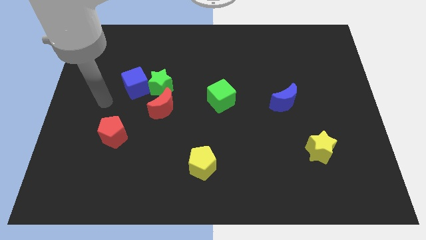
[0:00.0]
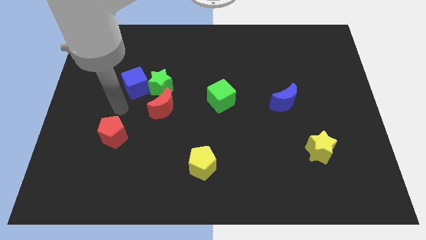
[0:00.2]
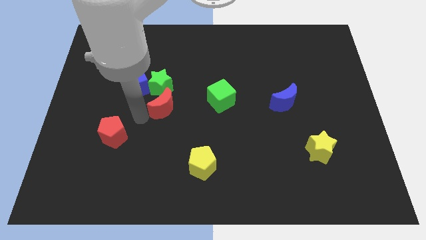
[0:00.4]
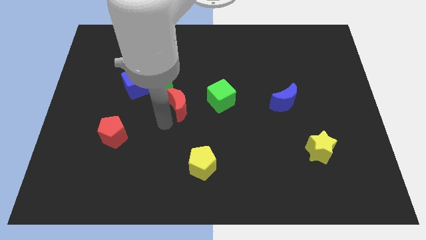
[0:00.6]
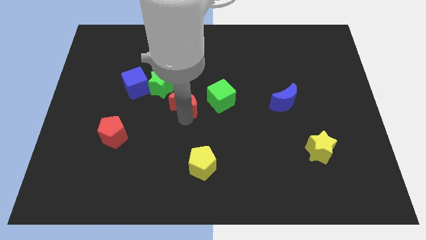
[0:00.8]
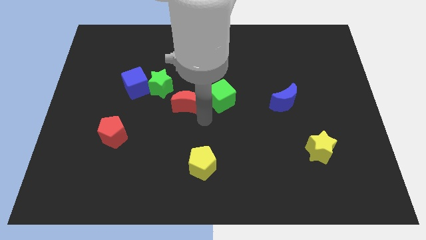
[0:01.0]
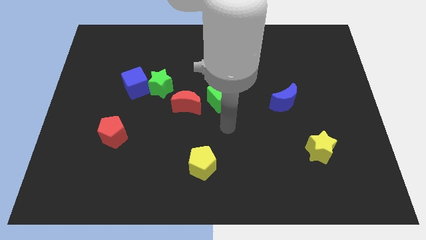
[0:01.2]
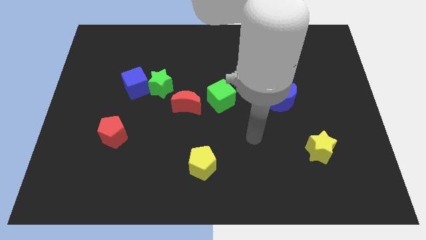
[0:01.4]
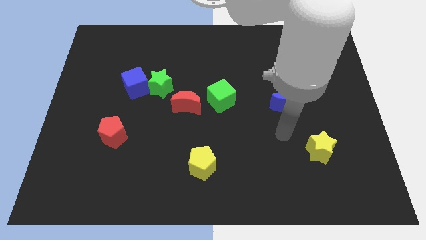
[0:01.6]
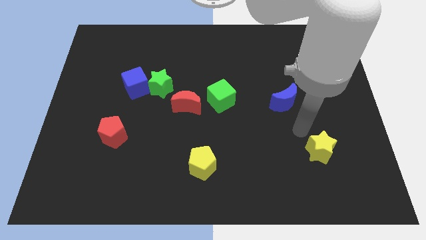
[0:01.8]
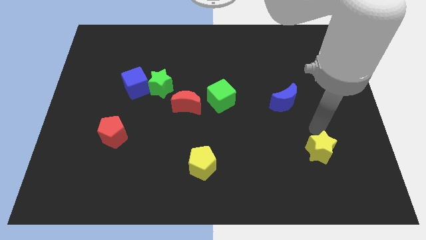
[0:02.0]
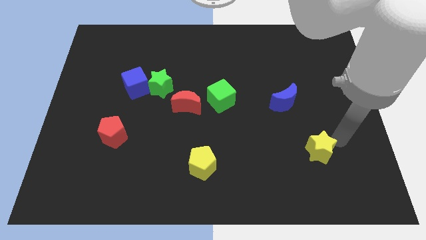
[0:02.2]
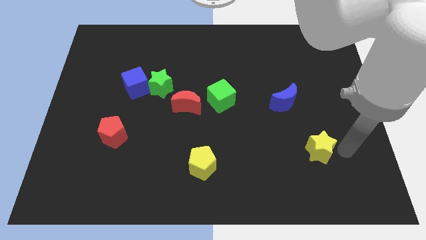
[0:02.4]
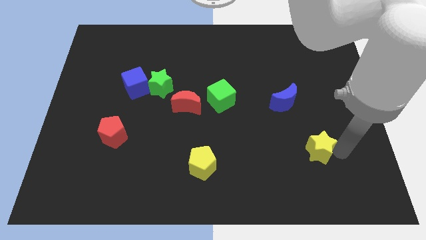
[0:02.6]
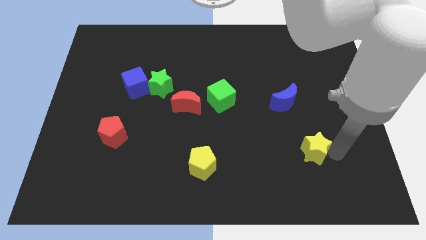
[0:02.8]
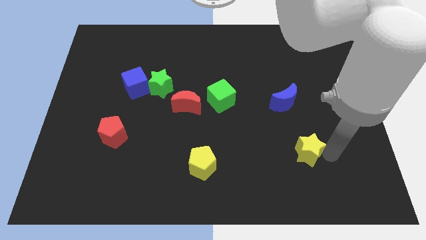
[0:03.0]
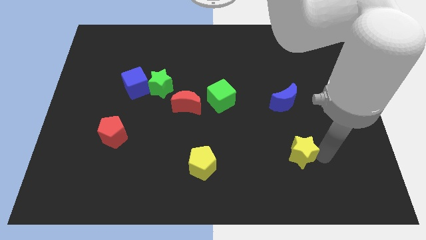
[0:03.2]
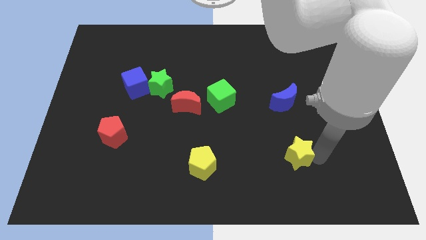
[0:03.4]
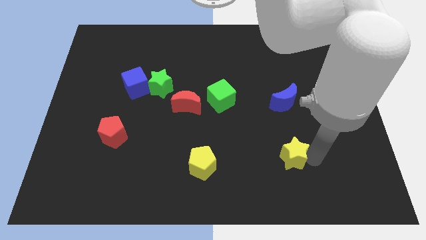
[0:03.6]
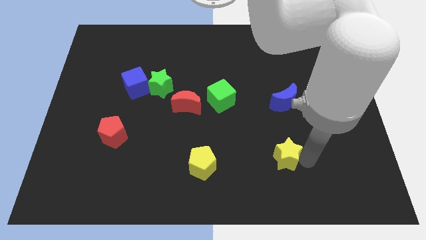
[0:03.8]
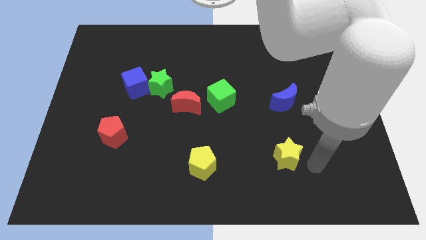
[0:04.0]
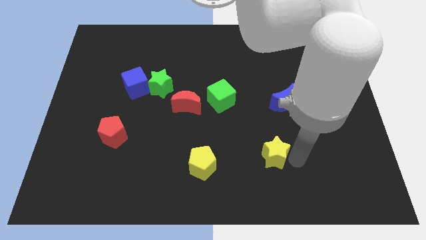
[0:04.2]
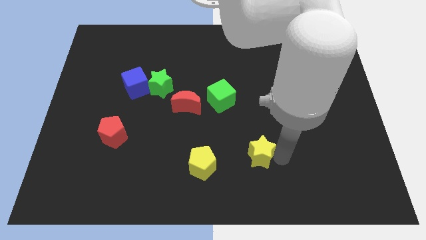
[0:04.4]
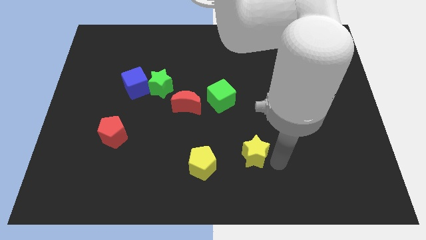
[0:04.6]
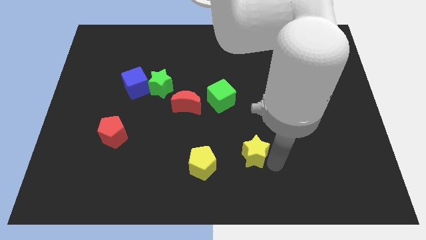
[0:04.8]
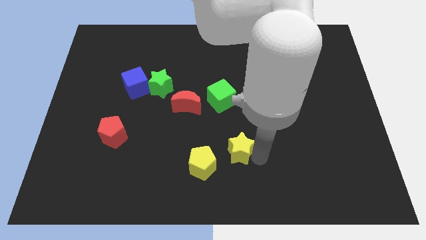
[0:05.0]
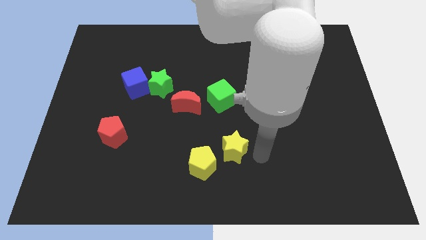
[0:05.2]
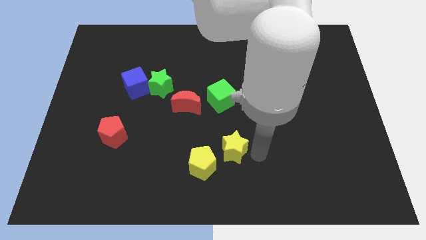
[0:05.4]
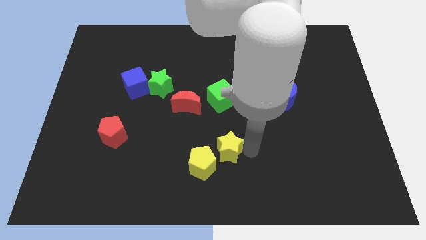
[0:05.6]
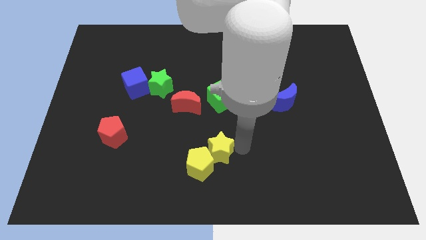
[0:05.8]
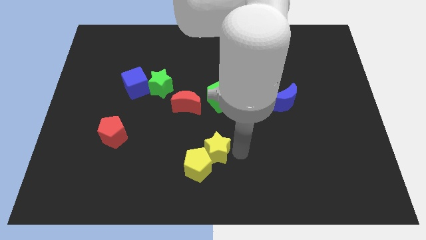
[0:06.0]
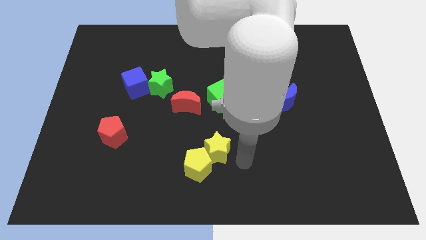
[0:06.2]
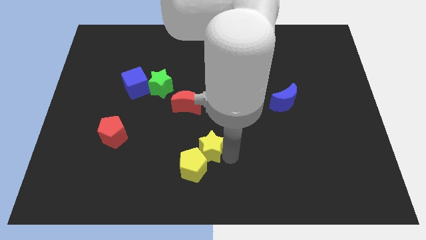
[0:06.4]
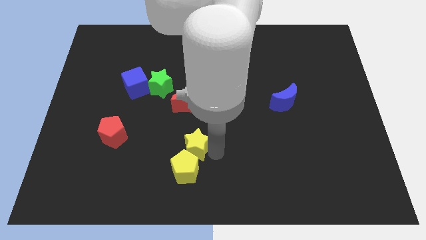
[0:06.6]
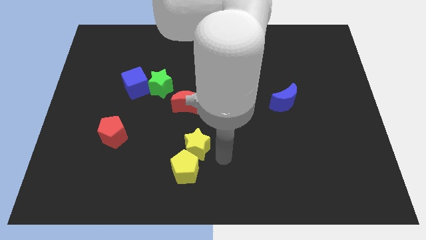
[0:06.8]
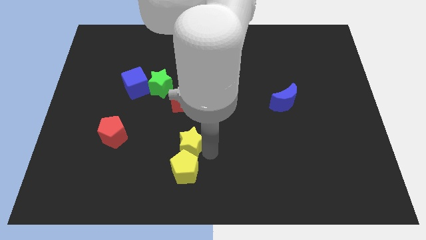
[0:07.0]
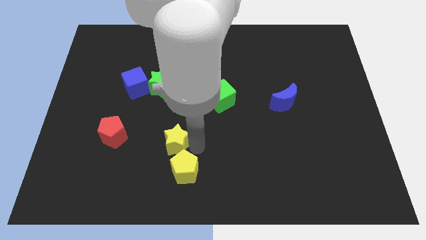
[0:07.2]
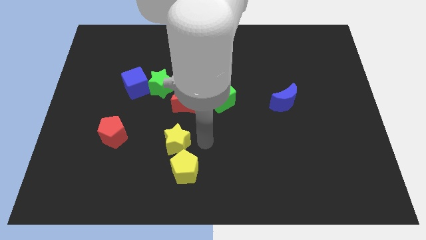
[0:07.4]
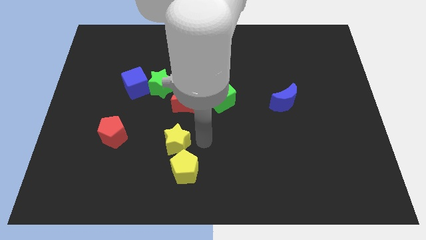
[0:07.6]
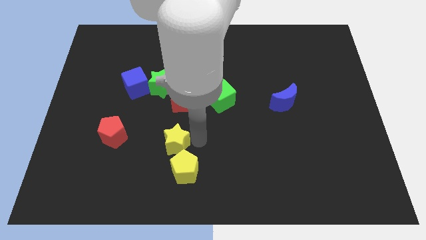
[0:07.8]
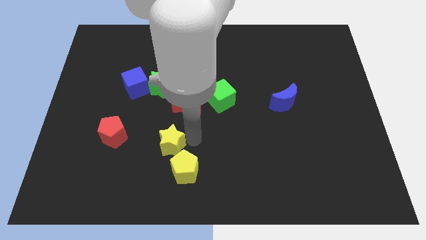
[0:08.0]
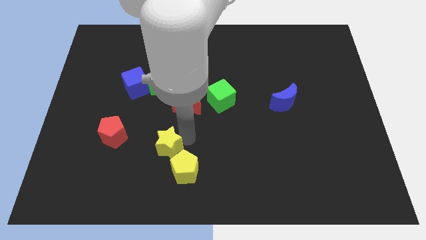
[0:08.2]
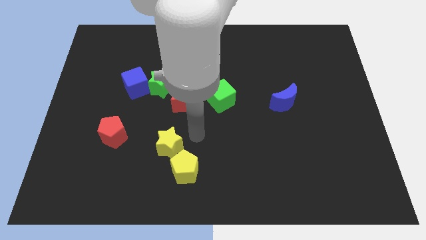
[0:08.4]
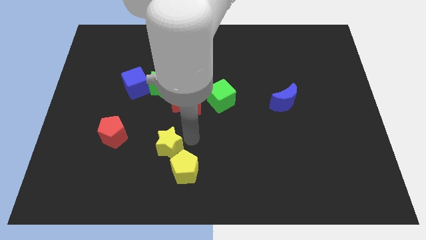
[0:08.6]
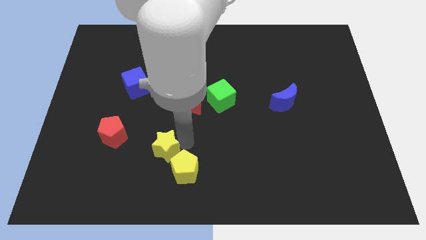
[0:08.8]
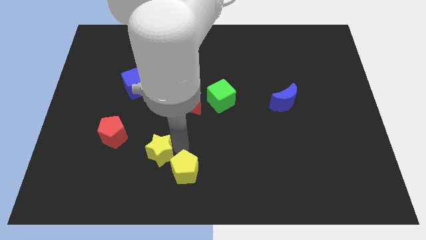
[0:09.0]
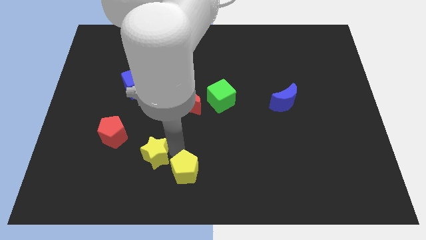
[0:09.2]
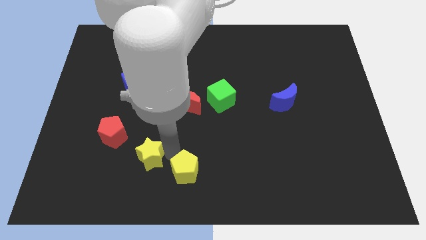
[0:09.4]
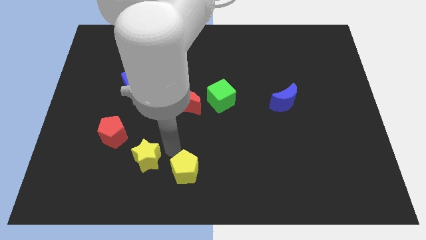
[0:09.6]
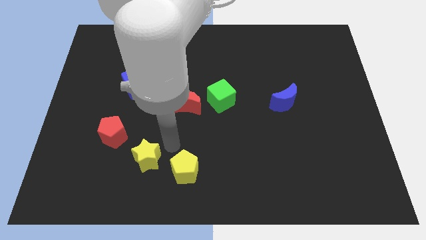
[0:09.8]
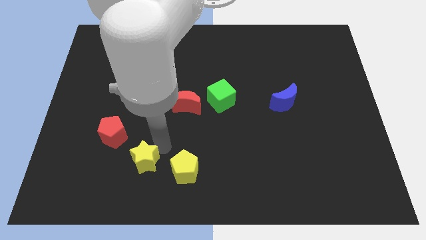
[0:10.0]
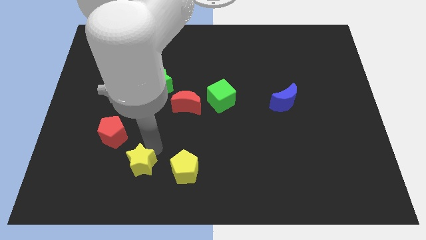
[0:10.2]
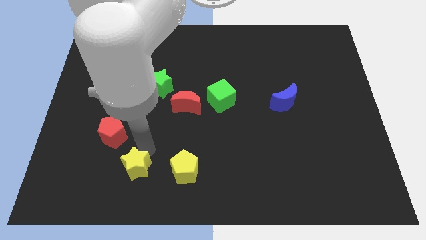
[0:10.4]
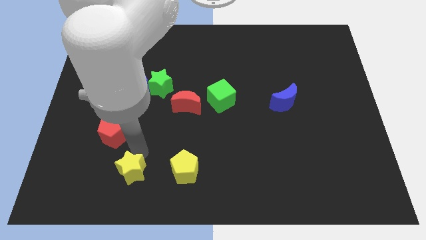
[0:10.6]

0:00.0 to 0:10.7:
move the yellow star to the bottom side of the red pentagon
